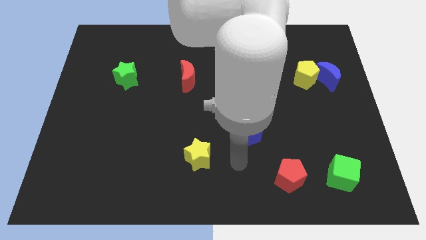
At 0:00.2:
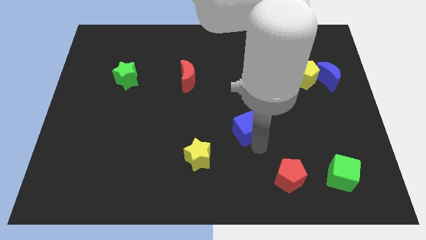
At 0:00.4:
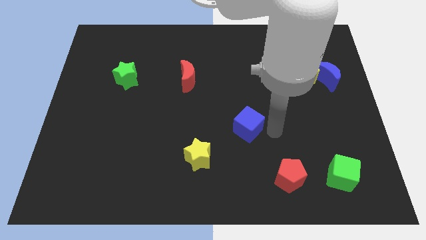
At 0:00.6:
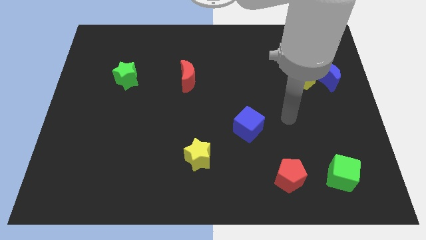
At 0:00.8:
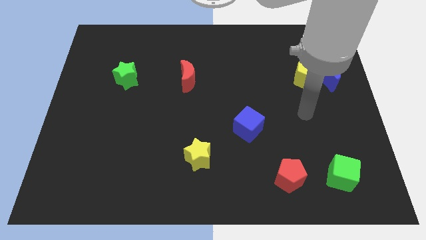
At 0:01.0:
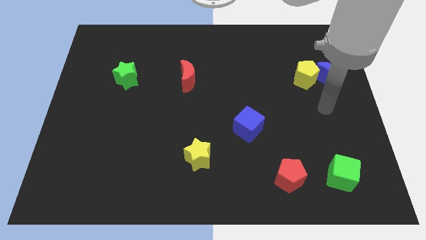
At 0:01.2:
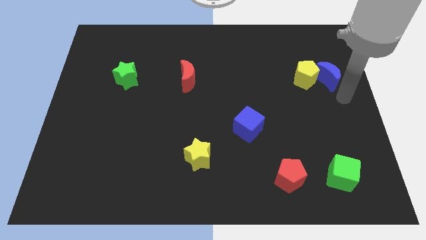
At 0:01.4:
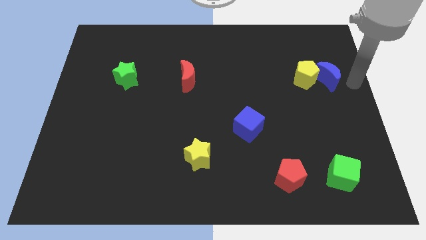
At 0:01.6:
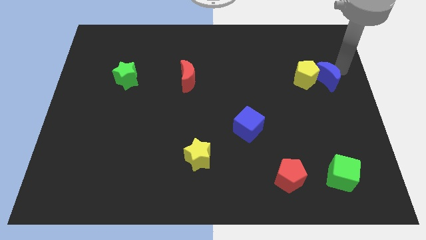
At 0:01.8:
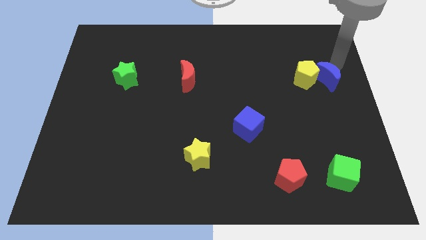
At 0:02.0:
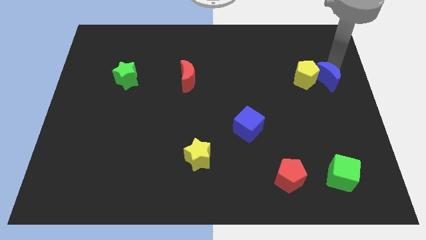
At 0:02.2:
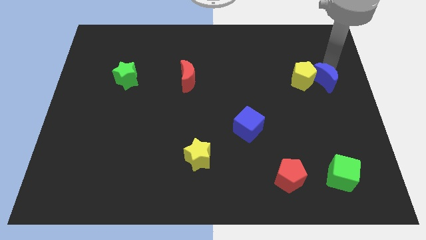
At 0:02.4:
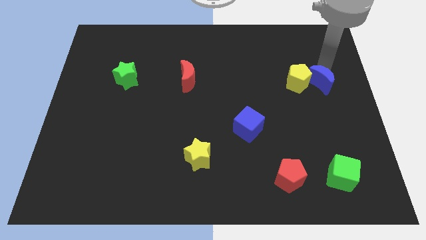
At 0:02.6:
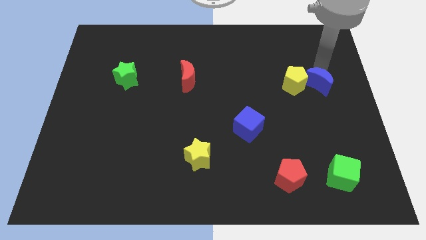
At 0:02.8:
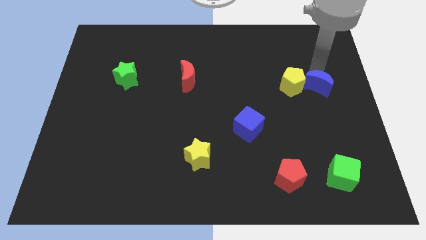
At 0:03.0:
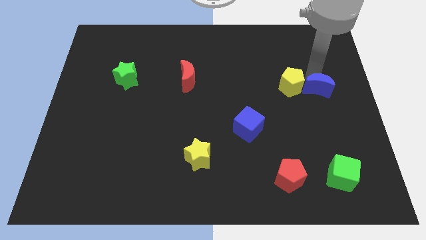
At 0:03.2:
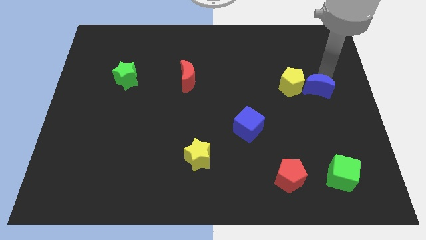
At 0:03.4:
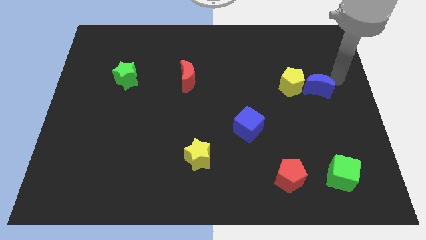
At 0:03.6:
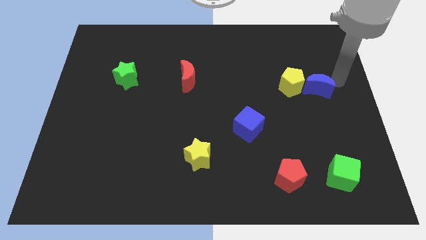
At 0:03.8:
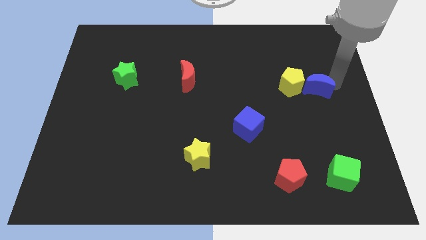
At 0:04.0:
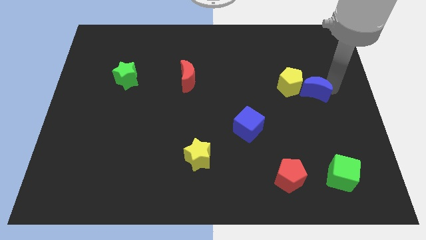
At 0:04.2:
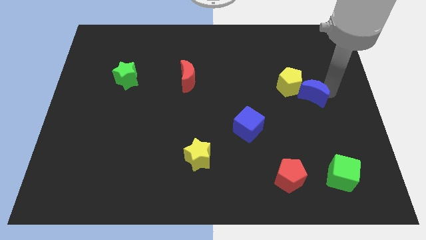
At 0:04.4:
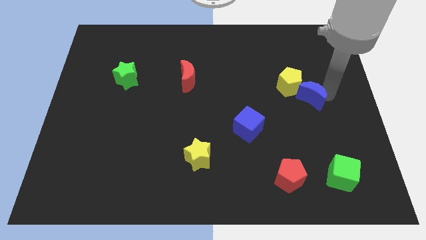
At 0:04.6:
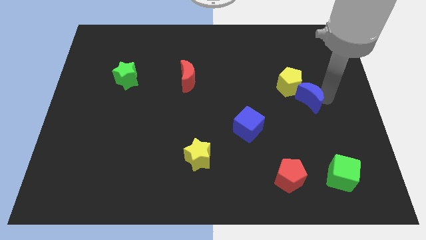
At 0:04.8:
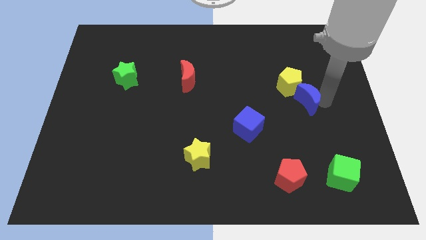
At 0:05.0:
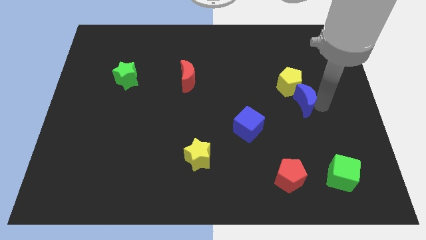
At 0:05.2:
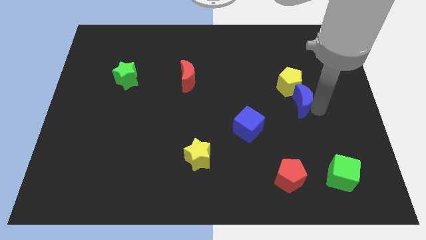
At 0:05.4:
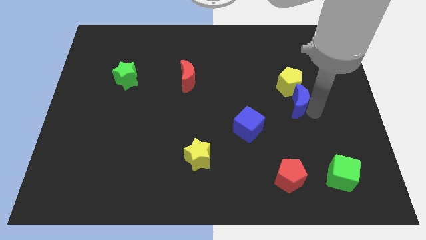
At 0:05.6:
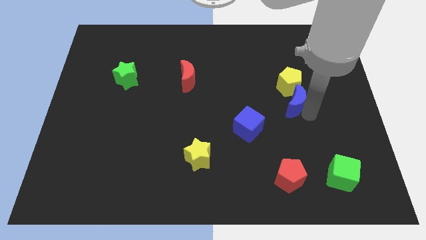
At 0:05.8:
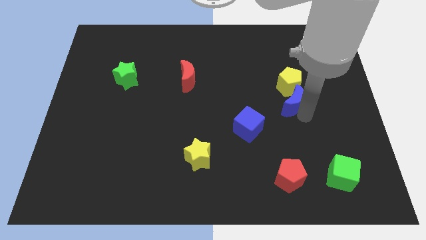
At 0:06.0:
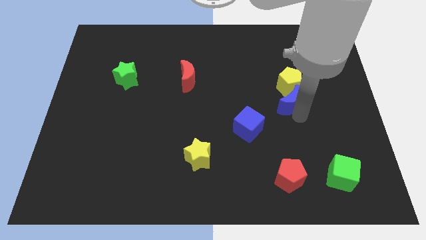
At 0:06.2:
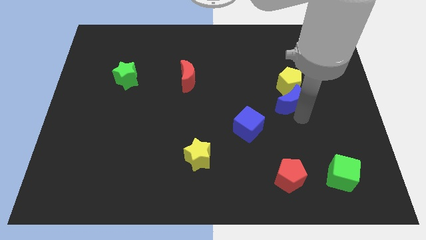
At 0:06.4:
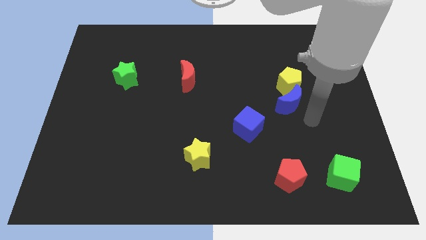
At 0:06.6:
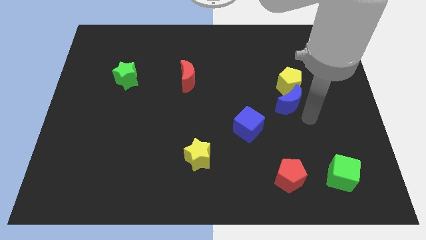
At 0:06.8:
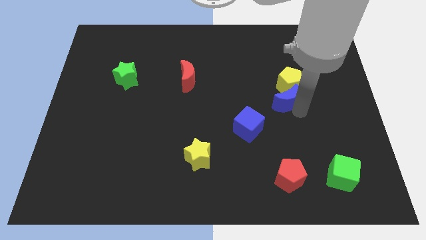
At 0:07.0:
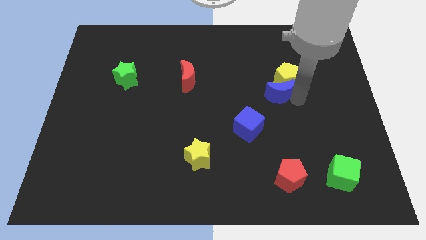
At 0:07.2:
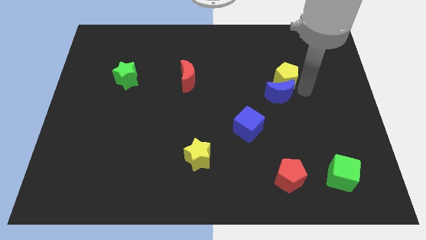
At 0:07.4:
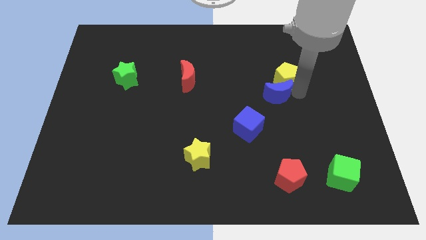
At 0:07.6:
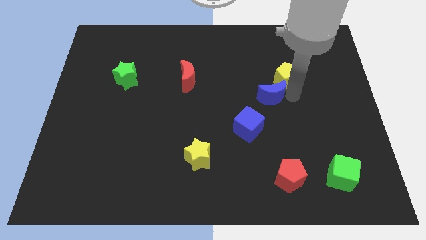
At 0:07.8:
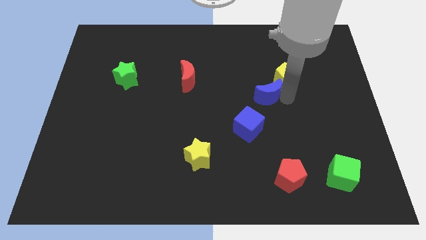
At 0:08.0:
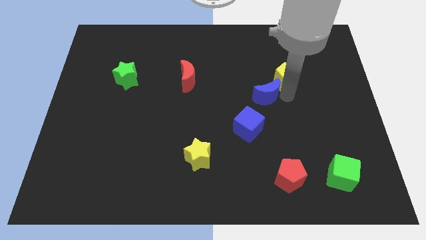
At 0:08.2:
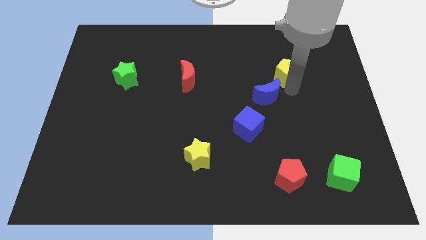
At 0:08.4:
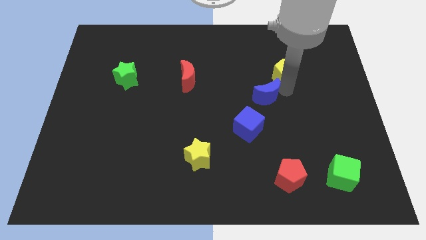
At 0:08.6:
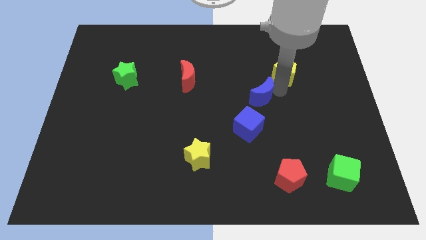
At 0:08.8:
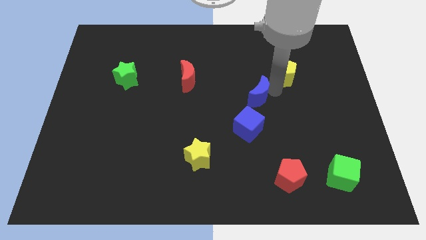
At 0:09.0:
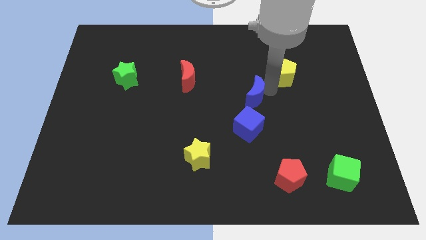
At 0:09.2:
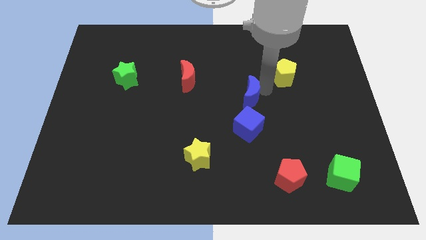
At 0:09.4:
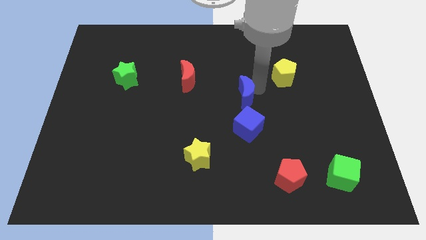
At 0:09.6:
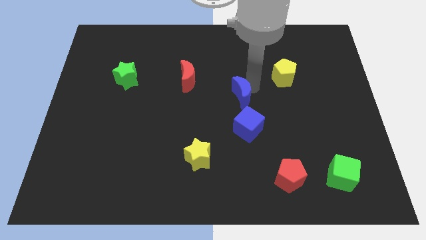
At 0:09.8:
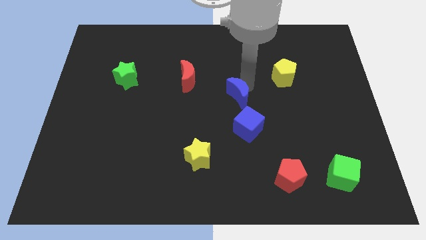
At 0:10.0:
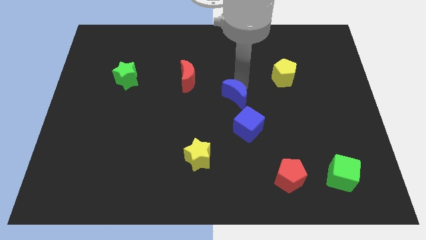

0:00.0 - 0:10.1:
push the blue moon to the top left of the blue cube

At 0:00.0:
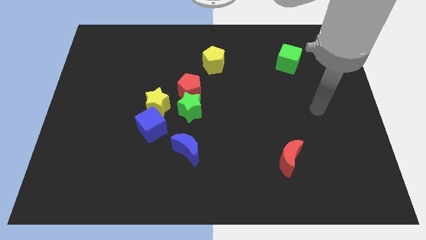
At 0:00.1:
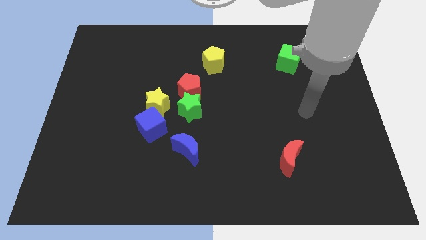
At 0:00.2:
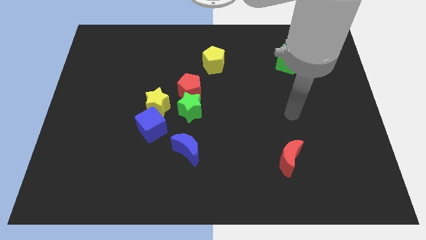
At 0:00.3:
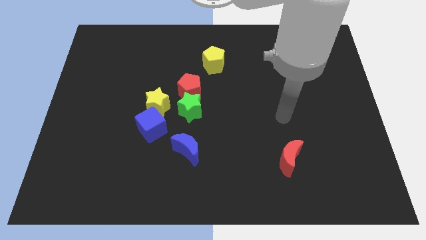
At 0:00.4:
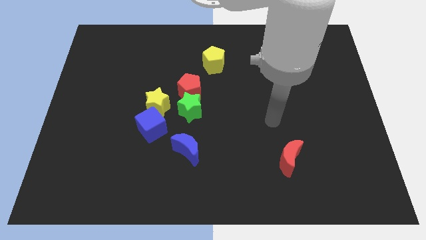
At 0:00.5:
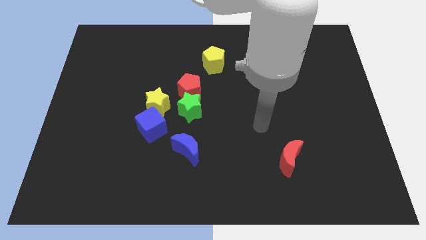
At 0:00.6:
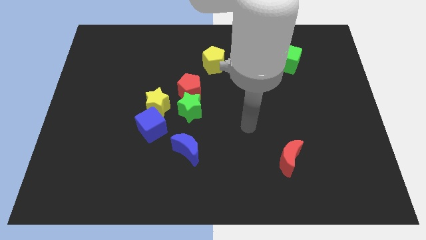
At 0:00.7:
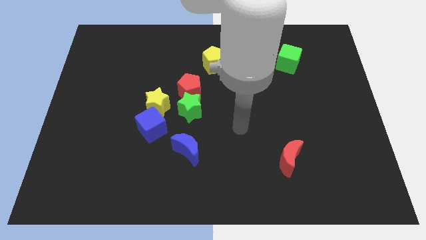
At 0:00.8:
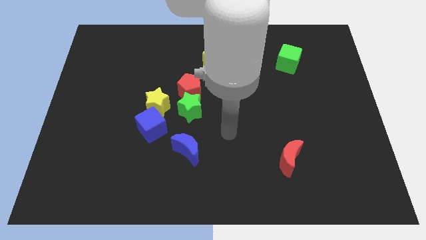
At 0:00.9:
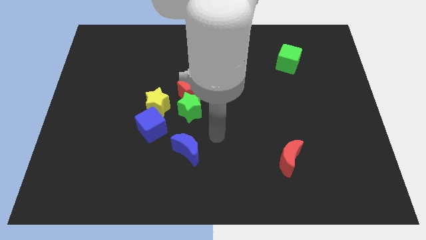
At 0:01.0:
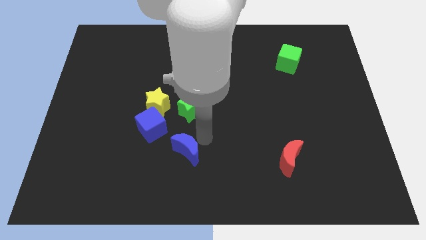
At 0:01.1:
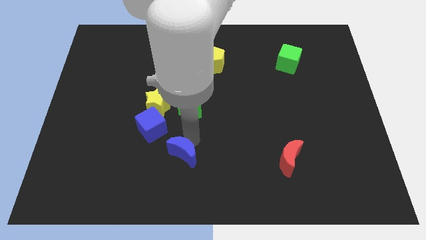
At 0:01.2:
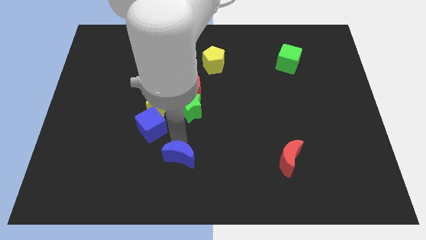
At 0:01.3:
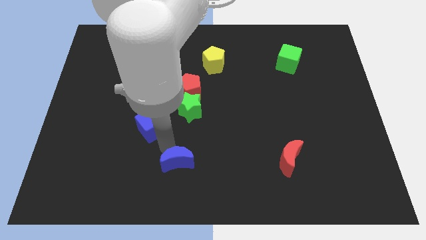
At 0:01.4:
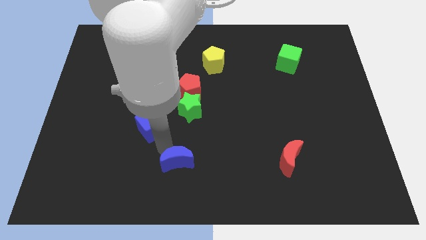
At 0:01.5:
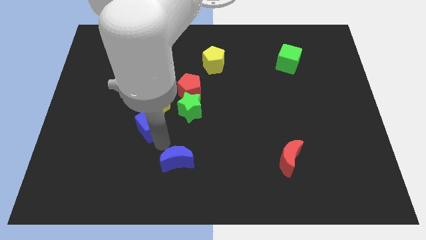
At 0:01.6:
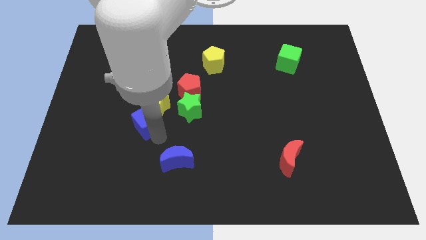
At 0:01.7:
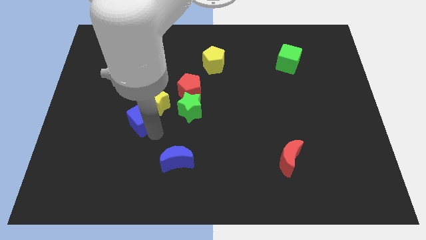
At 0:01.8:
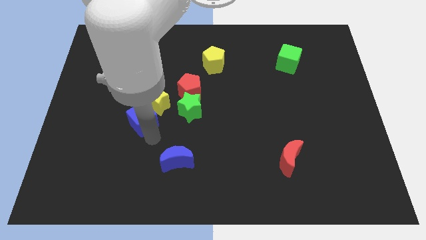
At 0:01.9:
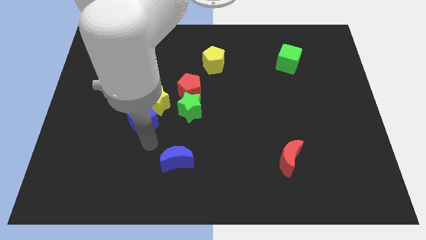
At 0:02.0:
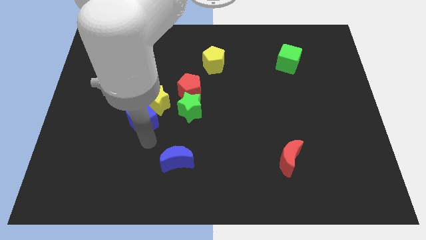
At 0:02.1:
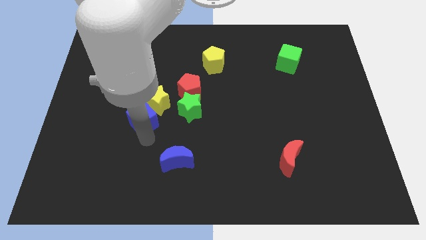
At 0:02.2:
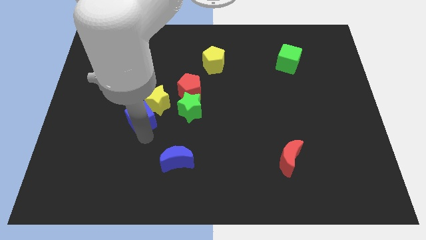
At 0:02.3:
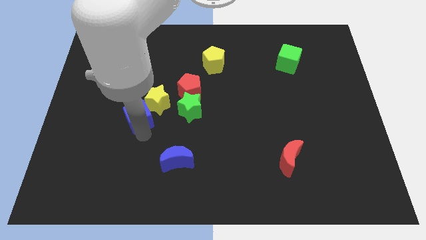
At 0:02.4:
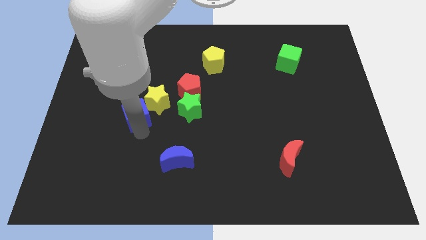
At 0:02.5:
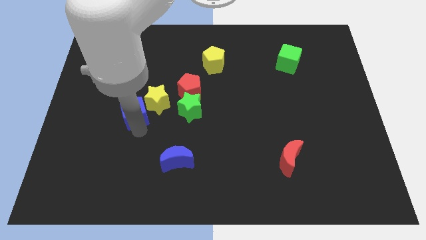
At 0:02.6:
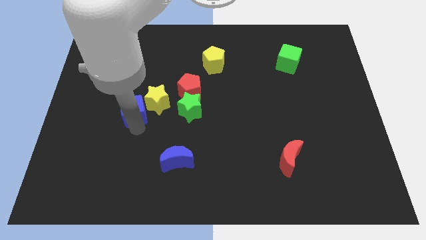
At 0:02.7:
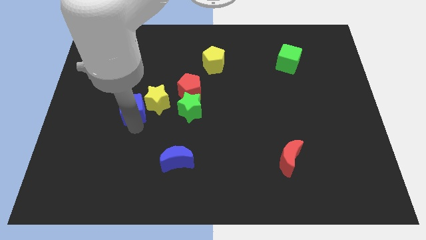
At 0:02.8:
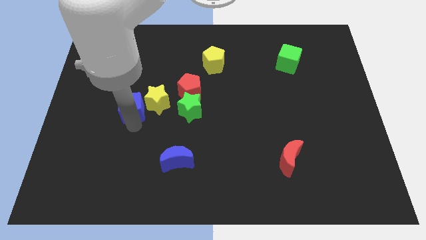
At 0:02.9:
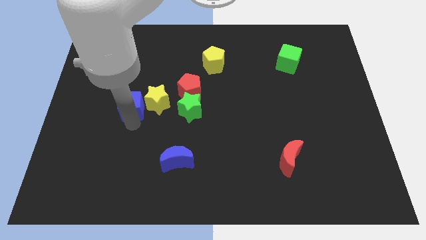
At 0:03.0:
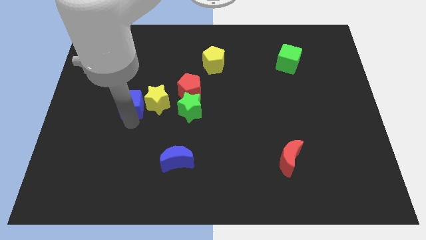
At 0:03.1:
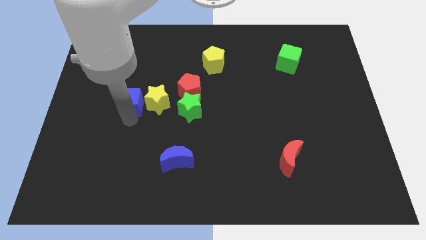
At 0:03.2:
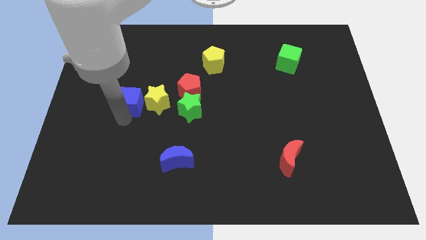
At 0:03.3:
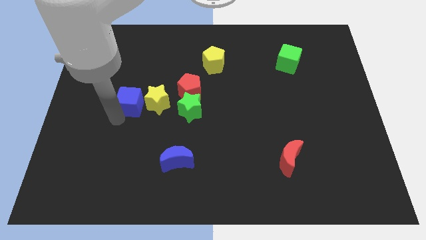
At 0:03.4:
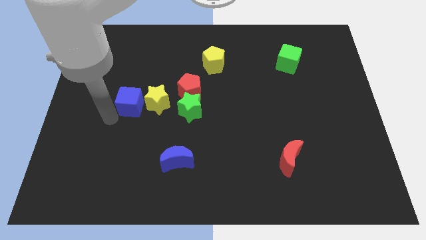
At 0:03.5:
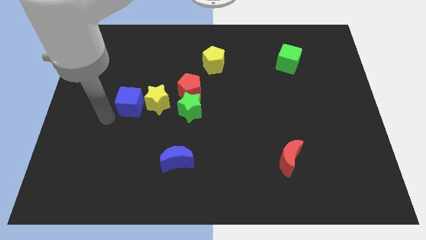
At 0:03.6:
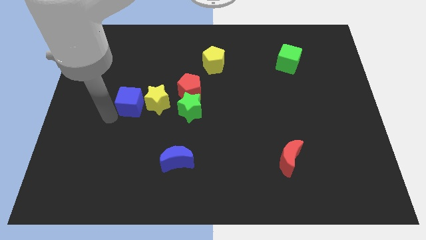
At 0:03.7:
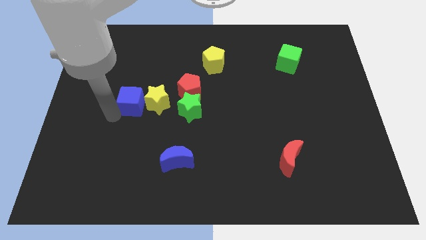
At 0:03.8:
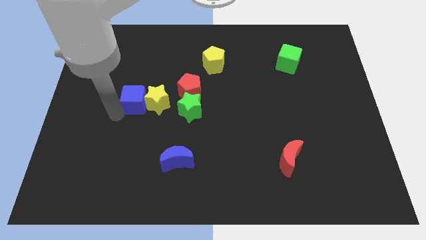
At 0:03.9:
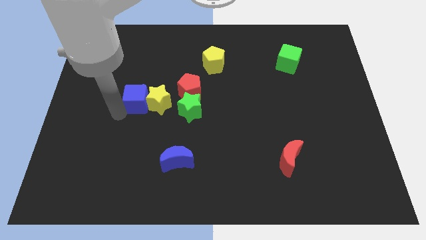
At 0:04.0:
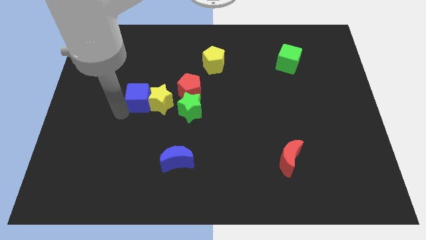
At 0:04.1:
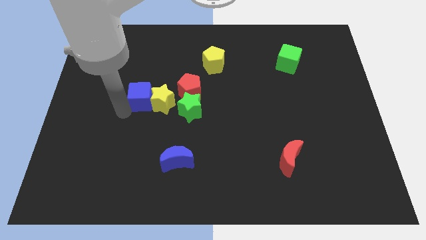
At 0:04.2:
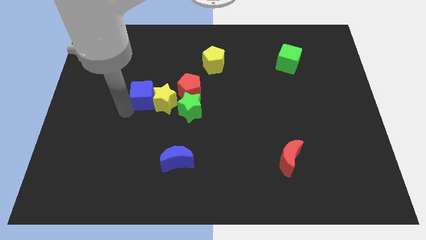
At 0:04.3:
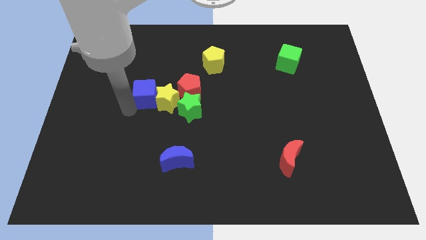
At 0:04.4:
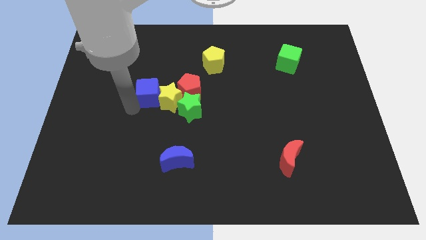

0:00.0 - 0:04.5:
move the blue cube to the top left of the green star
